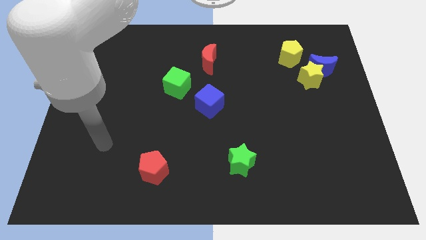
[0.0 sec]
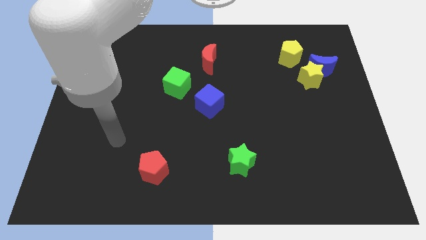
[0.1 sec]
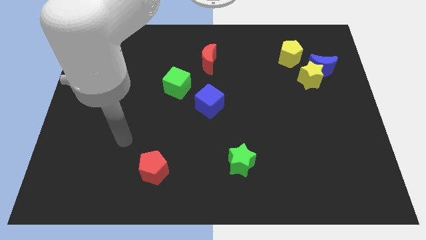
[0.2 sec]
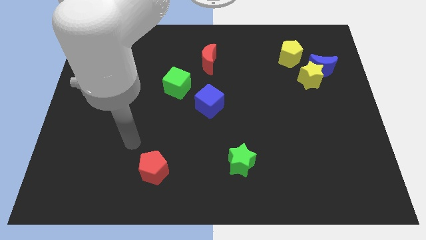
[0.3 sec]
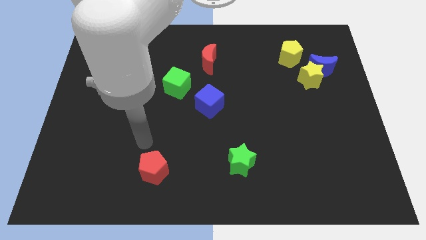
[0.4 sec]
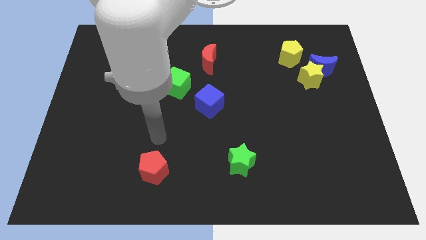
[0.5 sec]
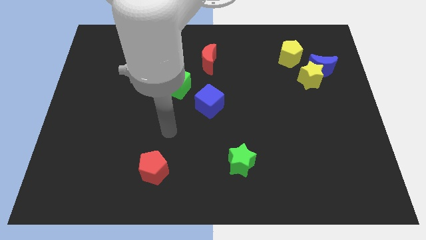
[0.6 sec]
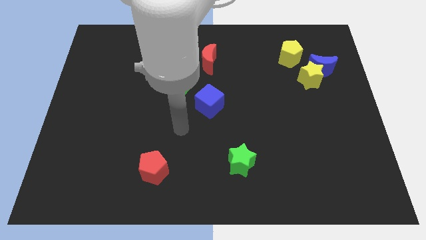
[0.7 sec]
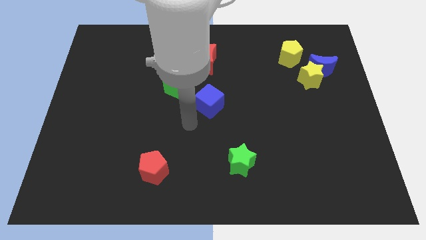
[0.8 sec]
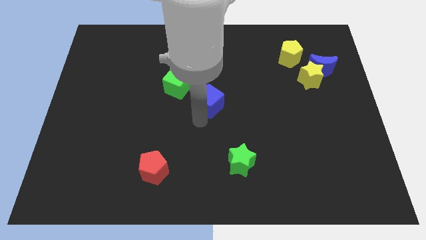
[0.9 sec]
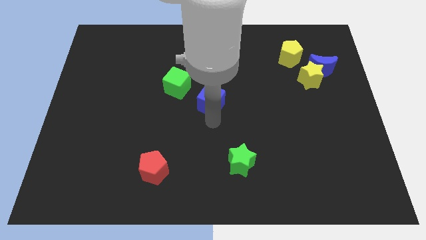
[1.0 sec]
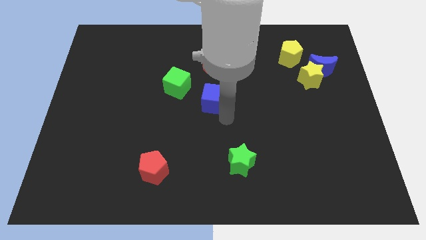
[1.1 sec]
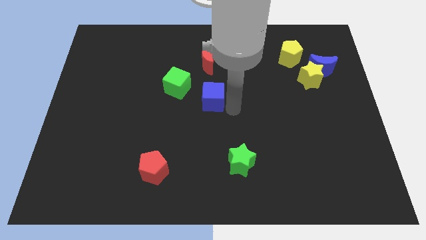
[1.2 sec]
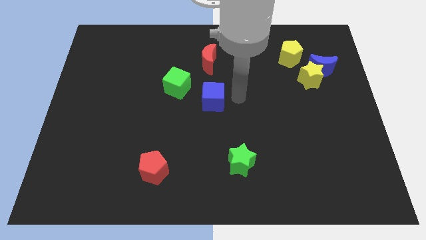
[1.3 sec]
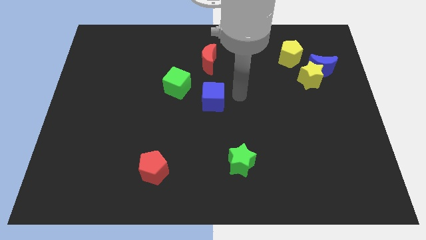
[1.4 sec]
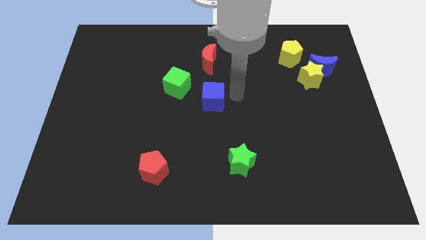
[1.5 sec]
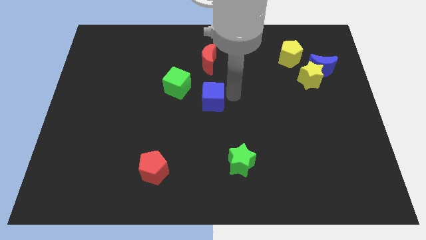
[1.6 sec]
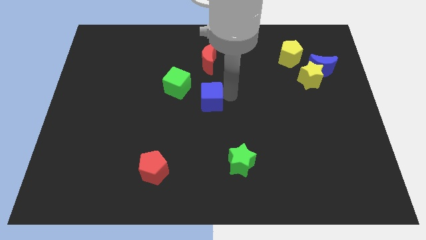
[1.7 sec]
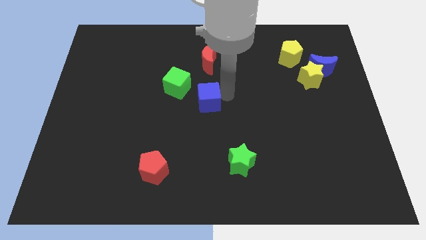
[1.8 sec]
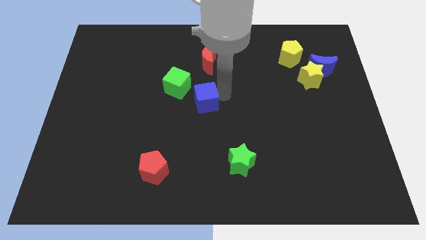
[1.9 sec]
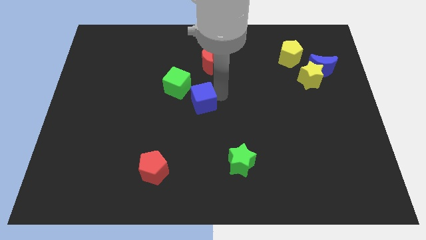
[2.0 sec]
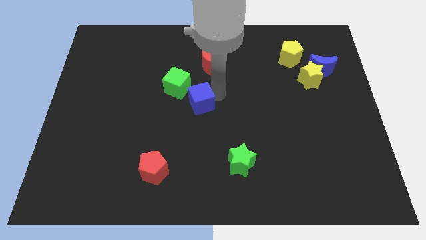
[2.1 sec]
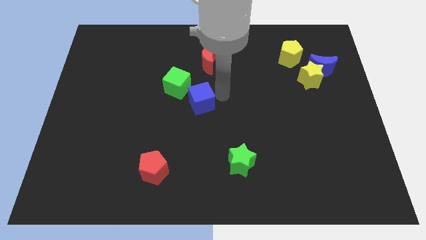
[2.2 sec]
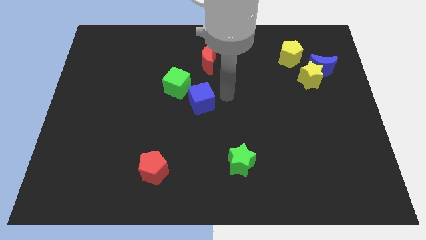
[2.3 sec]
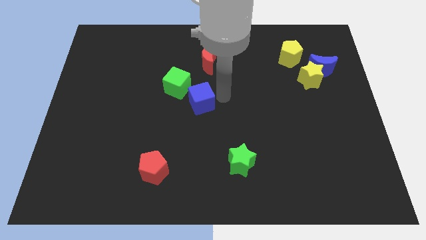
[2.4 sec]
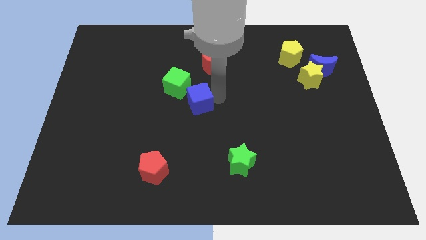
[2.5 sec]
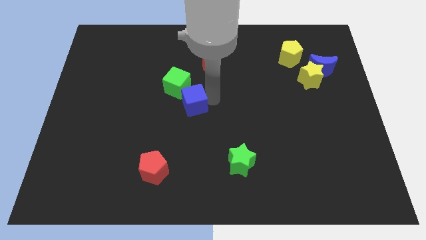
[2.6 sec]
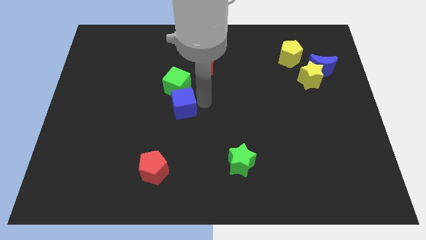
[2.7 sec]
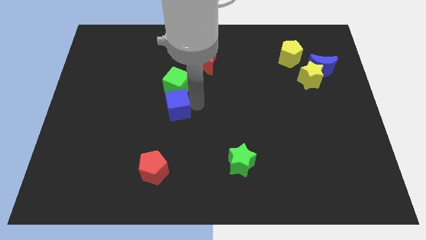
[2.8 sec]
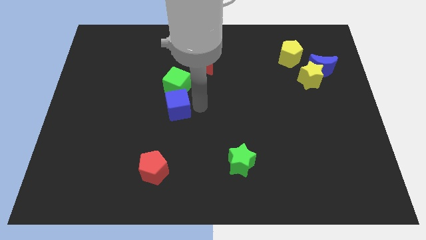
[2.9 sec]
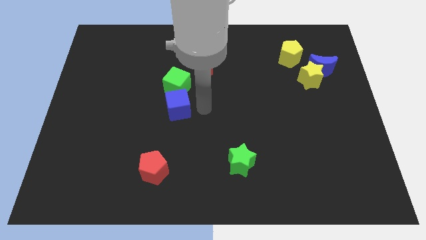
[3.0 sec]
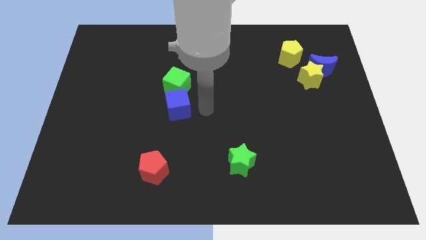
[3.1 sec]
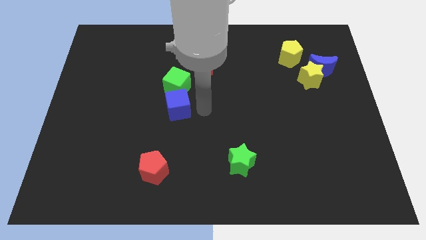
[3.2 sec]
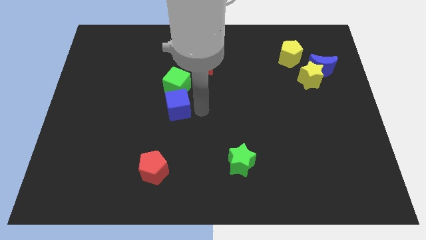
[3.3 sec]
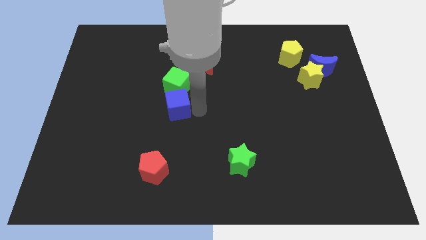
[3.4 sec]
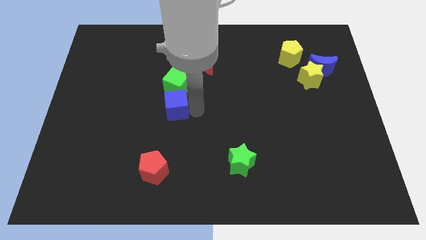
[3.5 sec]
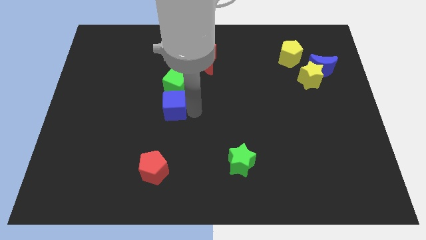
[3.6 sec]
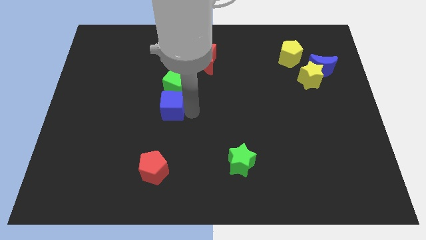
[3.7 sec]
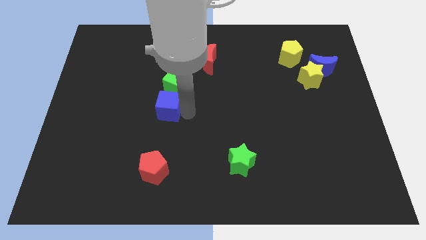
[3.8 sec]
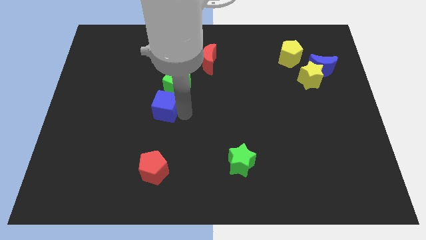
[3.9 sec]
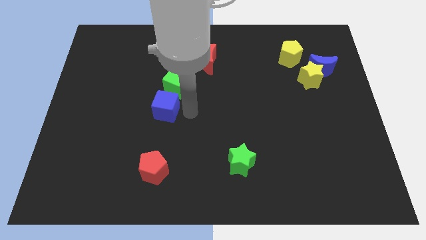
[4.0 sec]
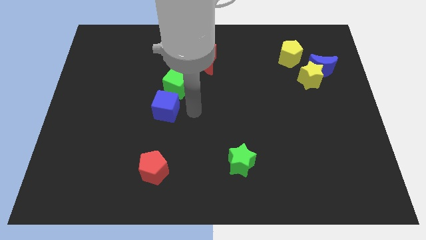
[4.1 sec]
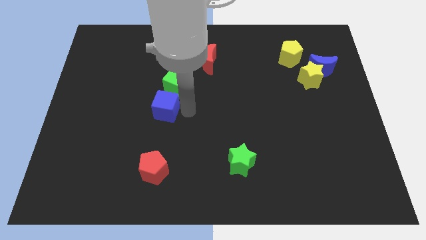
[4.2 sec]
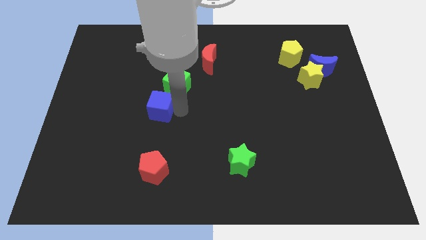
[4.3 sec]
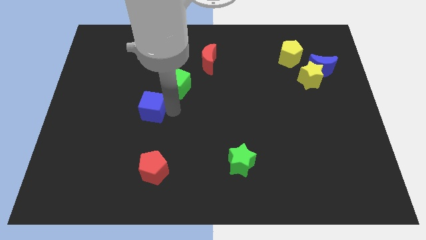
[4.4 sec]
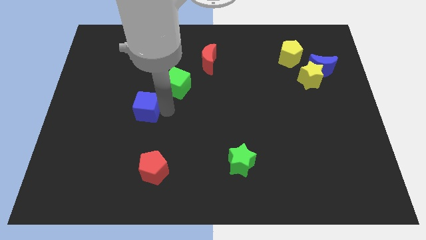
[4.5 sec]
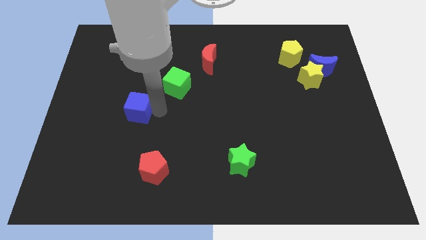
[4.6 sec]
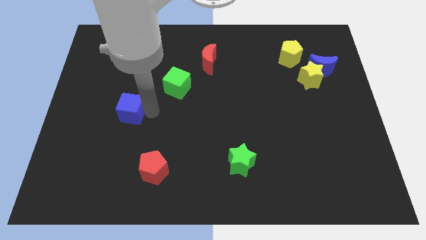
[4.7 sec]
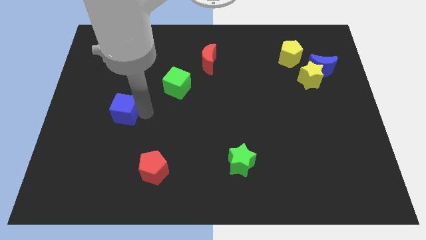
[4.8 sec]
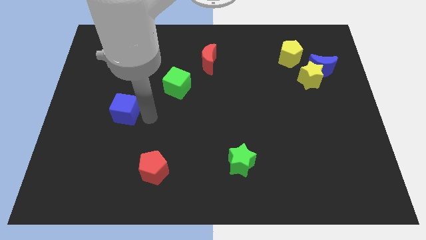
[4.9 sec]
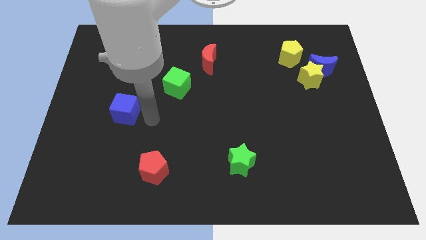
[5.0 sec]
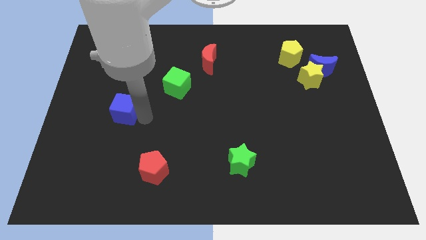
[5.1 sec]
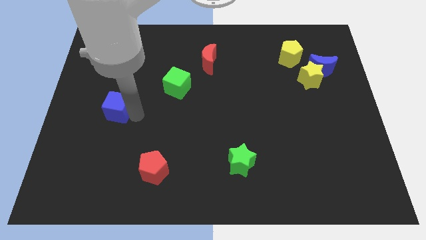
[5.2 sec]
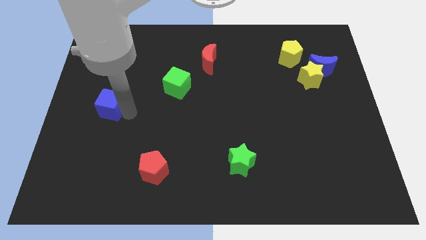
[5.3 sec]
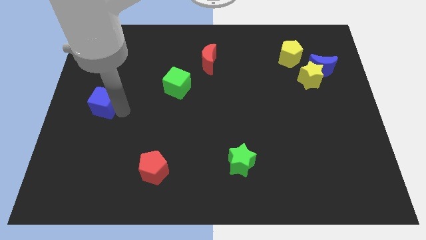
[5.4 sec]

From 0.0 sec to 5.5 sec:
push the blue cube to the left side
